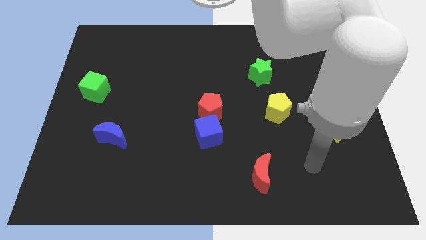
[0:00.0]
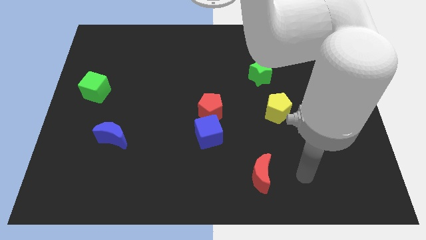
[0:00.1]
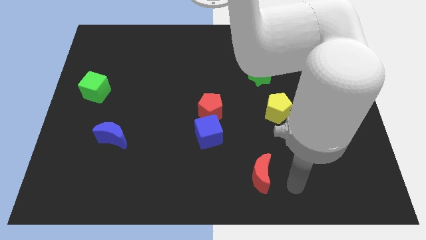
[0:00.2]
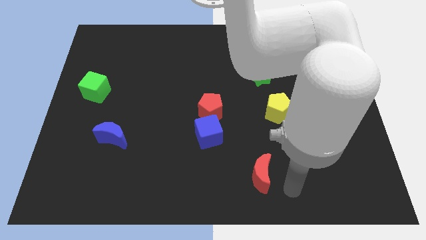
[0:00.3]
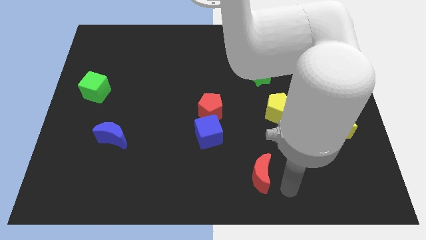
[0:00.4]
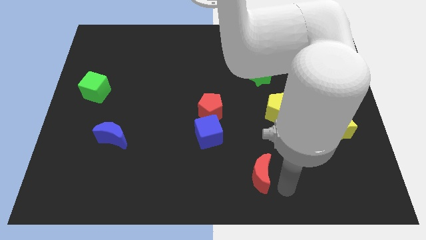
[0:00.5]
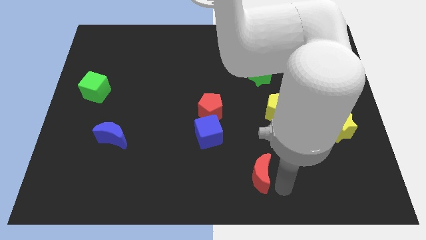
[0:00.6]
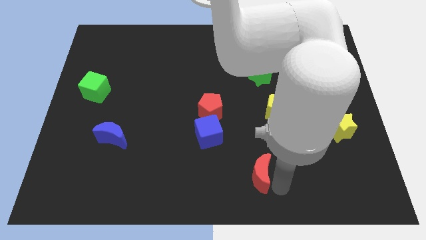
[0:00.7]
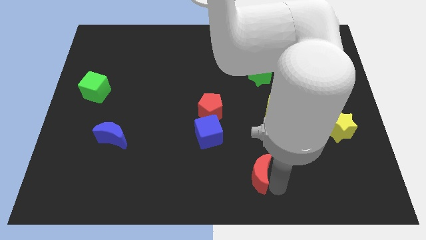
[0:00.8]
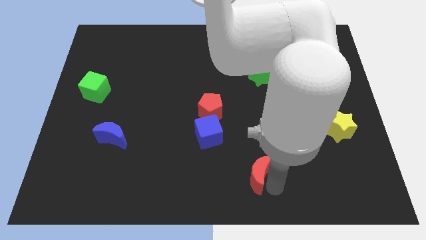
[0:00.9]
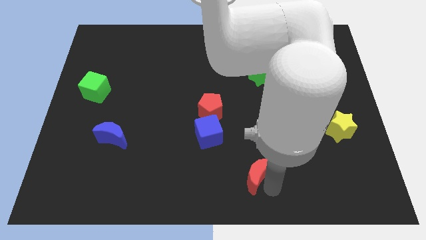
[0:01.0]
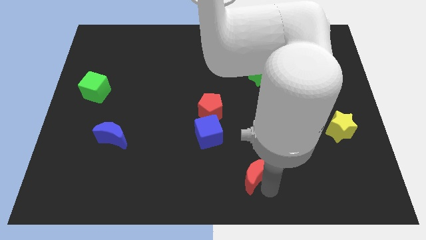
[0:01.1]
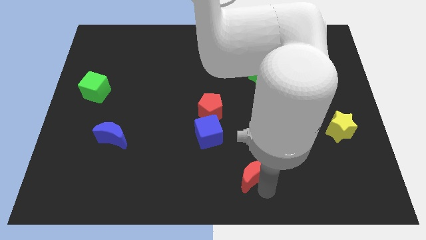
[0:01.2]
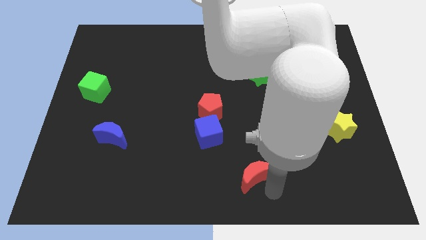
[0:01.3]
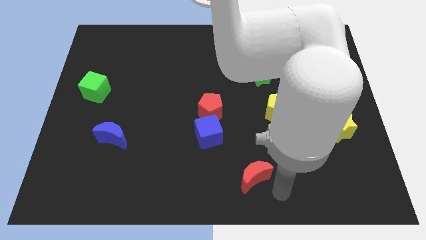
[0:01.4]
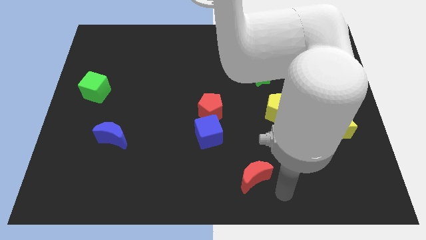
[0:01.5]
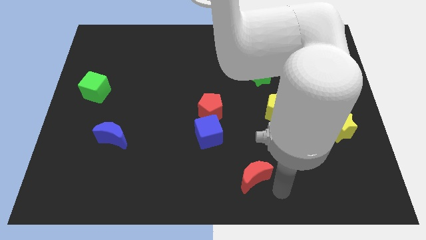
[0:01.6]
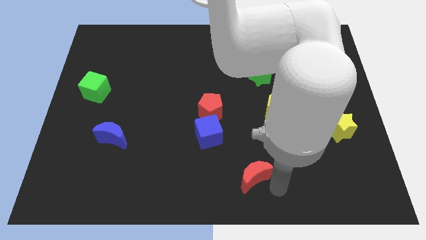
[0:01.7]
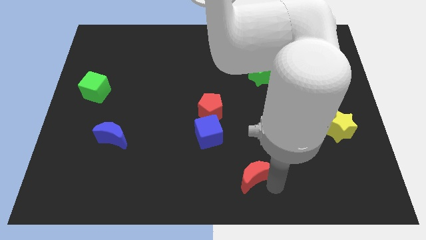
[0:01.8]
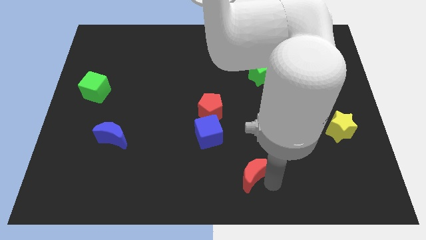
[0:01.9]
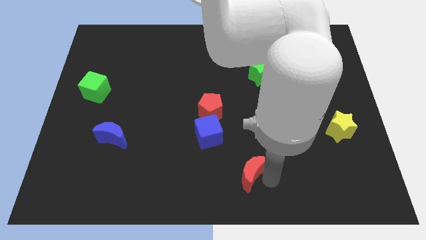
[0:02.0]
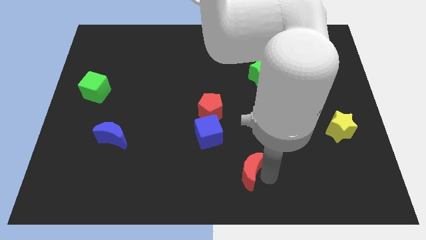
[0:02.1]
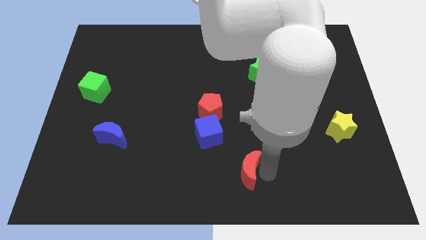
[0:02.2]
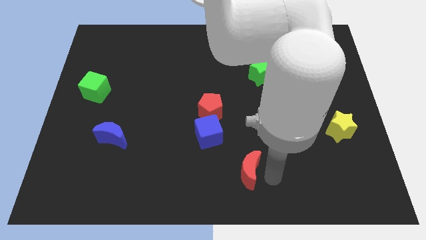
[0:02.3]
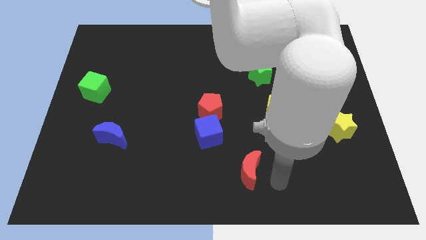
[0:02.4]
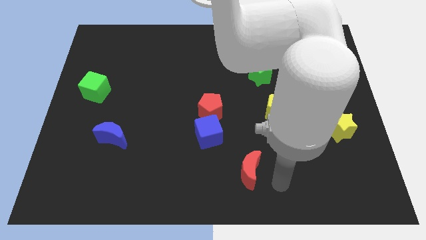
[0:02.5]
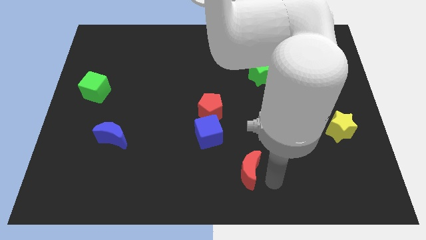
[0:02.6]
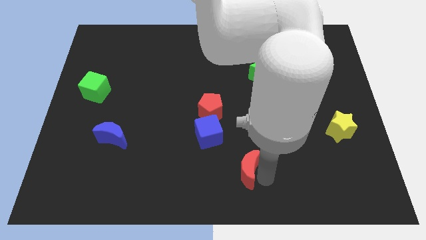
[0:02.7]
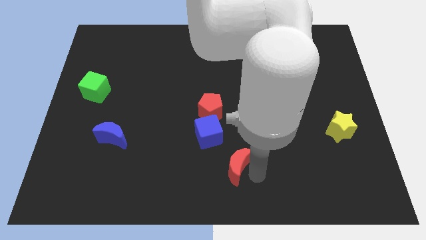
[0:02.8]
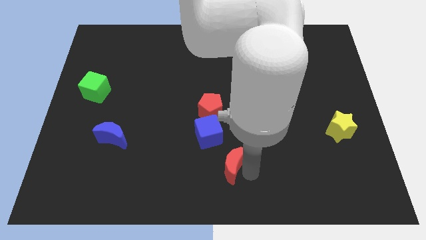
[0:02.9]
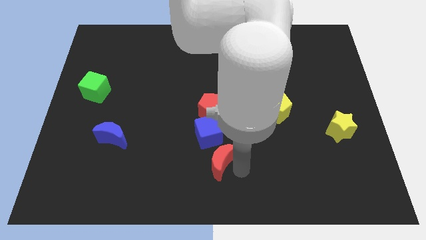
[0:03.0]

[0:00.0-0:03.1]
move the red moon a little bit upwards and left diagonally

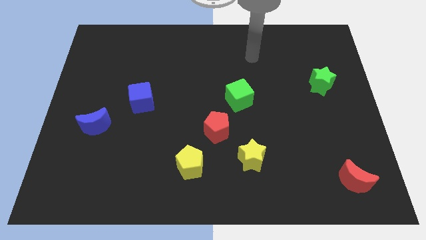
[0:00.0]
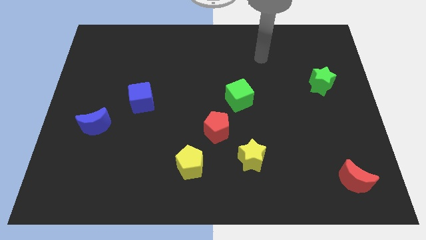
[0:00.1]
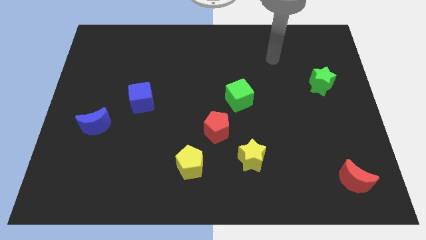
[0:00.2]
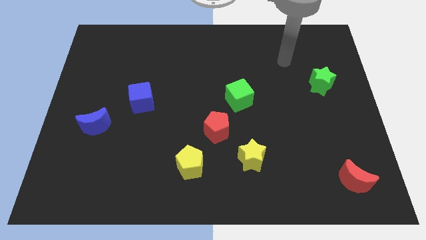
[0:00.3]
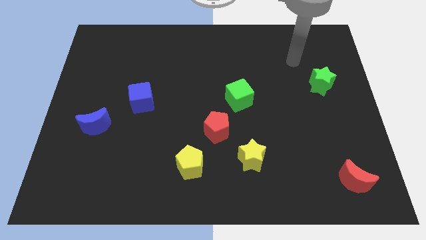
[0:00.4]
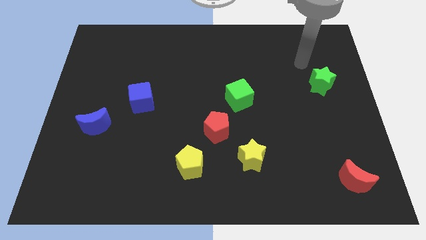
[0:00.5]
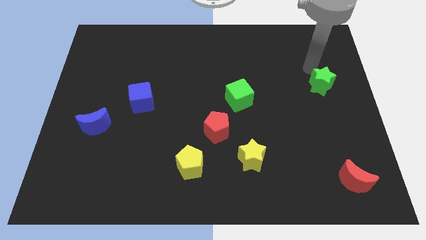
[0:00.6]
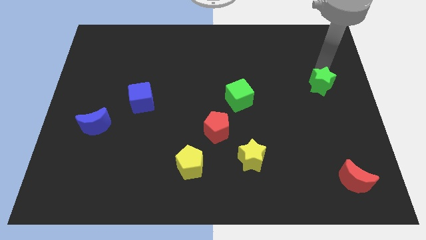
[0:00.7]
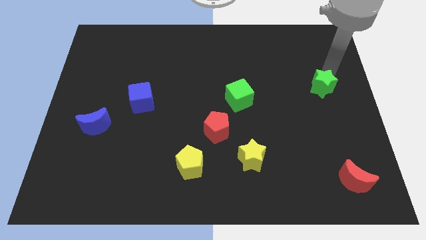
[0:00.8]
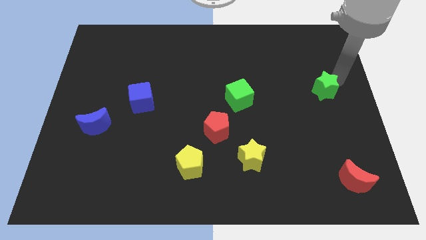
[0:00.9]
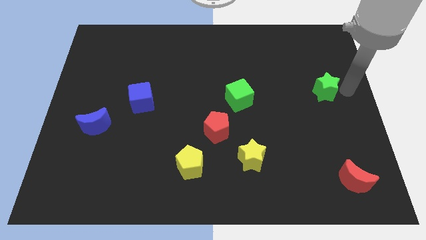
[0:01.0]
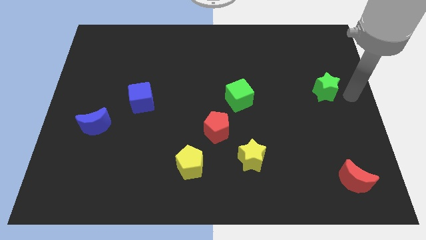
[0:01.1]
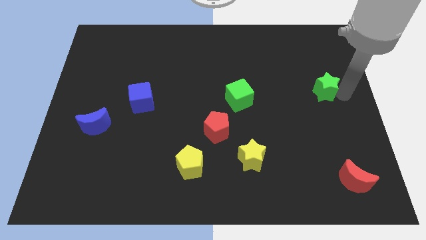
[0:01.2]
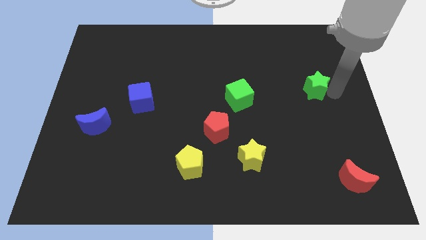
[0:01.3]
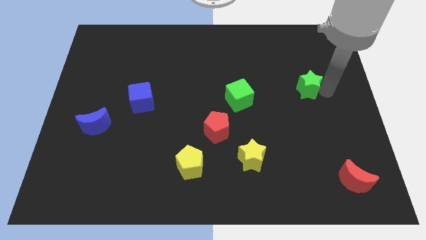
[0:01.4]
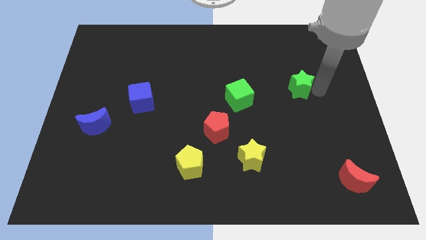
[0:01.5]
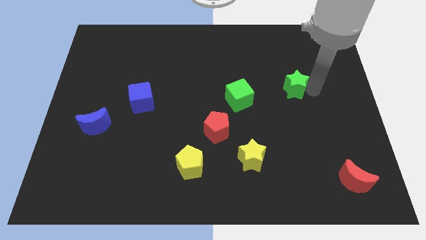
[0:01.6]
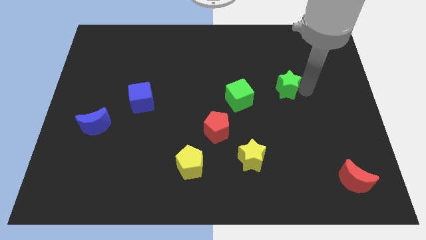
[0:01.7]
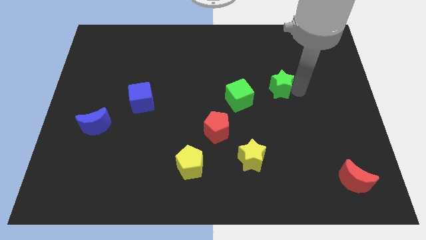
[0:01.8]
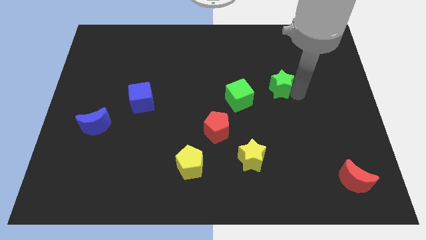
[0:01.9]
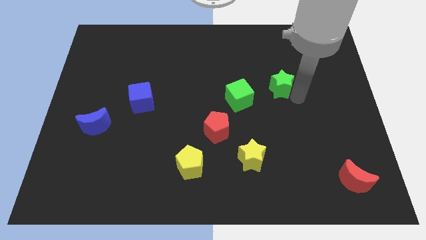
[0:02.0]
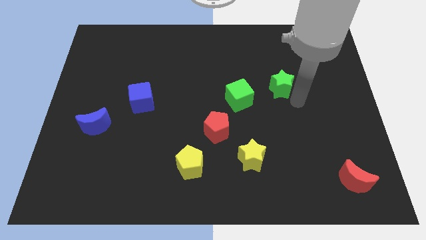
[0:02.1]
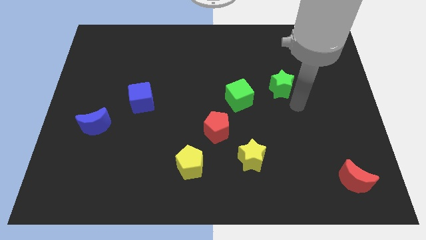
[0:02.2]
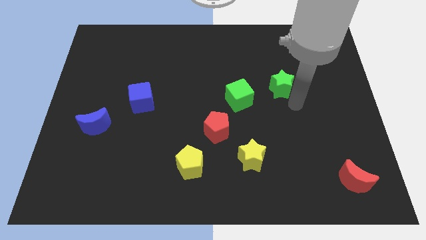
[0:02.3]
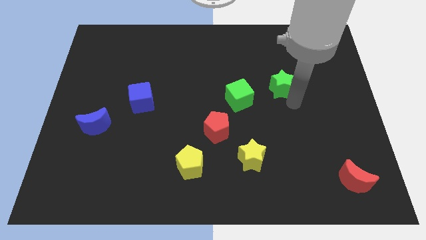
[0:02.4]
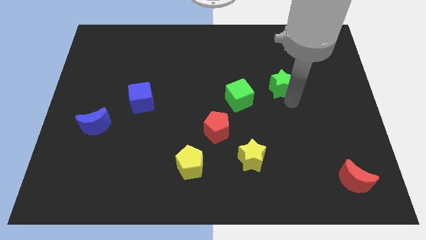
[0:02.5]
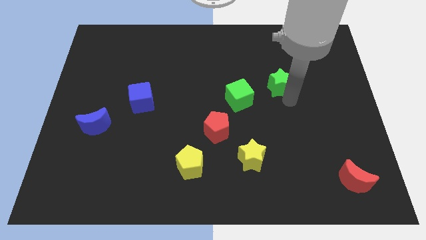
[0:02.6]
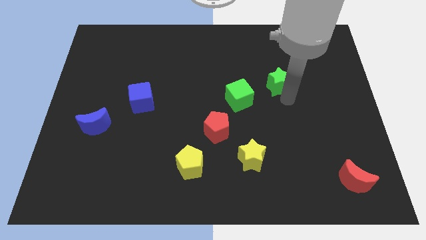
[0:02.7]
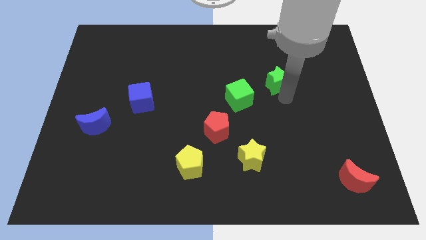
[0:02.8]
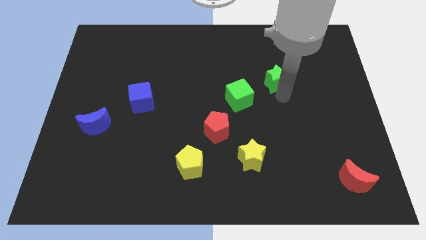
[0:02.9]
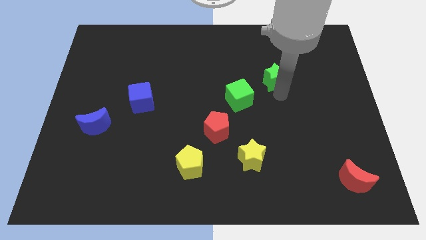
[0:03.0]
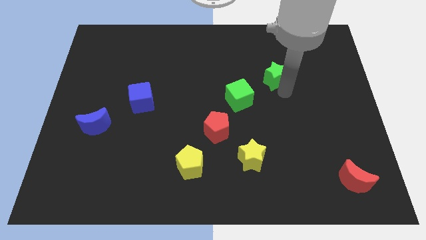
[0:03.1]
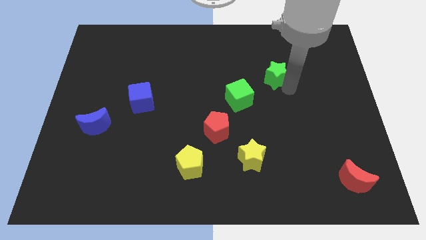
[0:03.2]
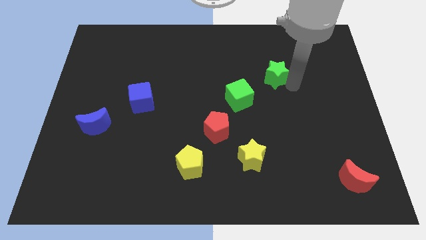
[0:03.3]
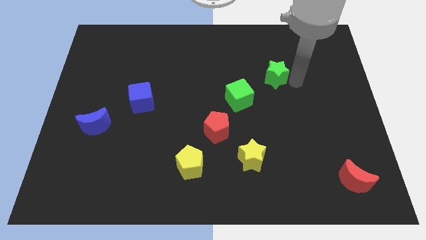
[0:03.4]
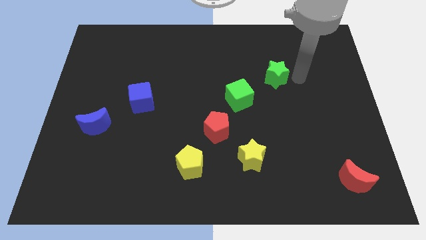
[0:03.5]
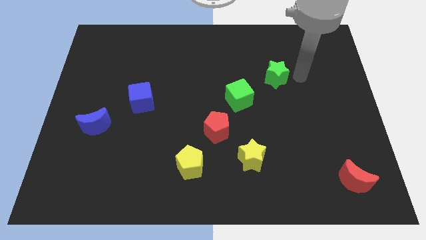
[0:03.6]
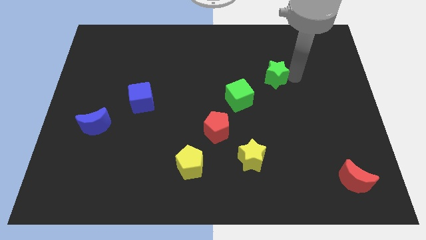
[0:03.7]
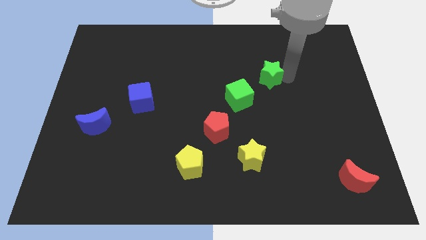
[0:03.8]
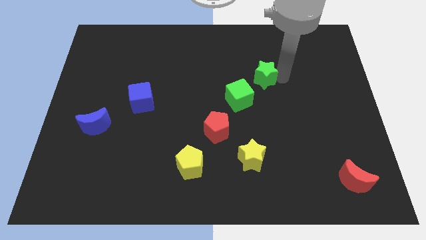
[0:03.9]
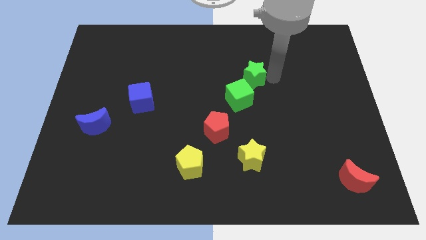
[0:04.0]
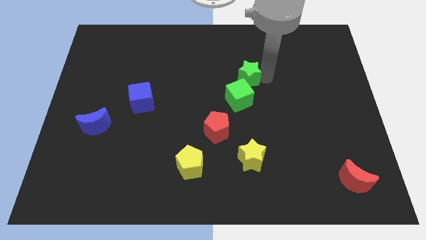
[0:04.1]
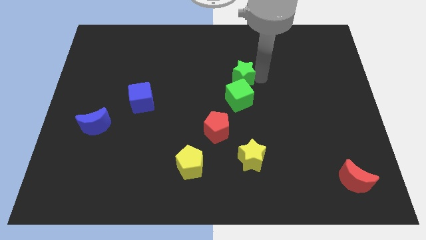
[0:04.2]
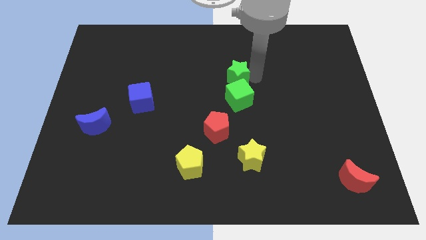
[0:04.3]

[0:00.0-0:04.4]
push the green star left

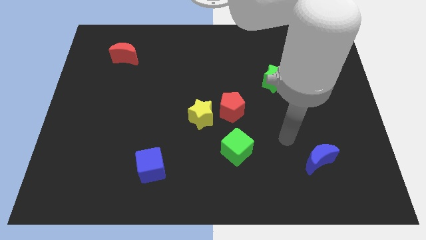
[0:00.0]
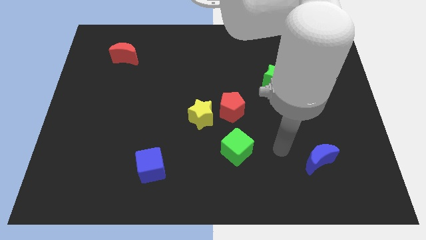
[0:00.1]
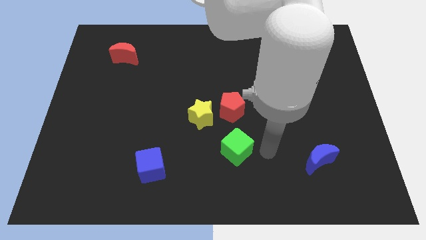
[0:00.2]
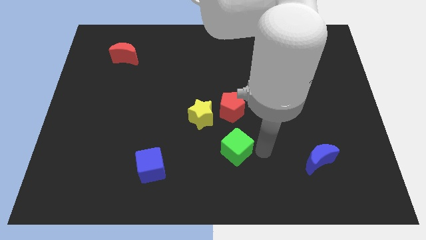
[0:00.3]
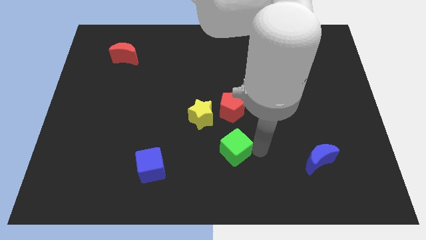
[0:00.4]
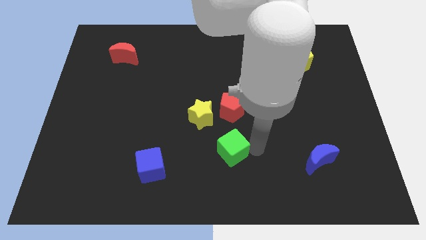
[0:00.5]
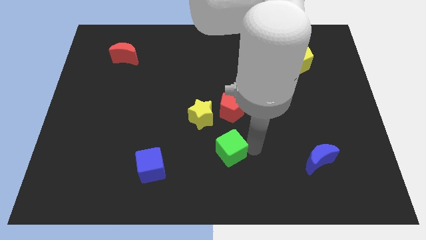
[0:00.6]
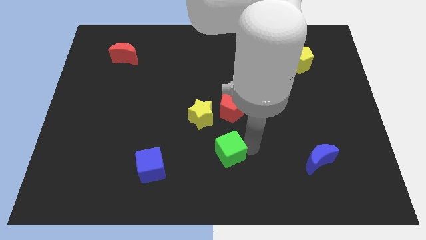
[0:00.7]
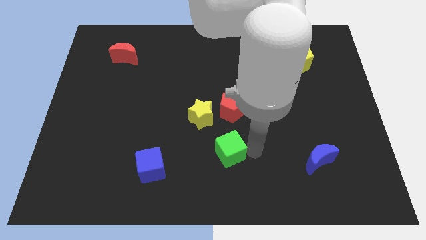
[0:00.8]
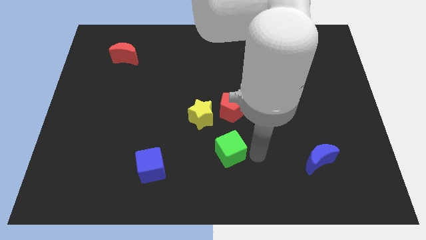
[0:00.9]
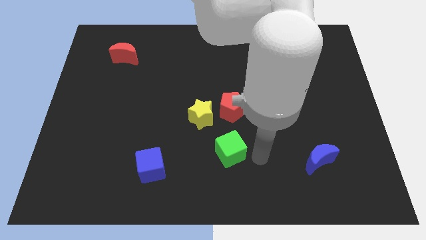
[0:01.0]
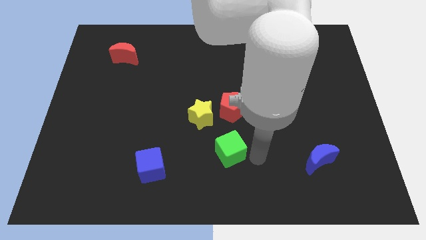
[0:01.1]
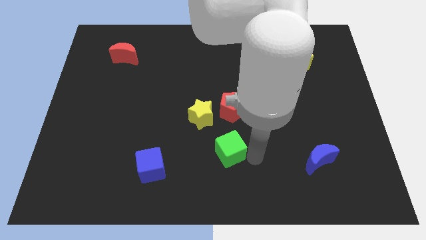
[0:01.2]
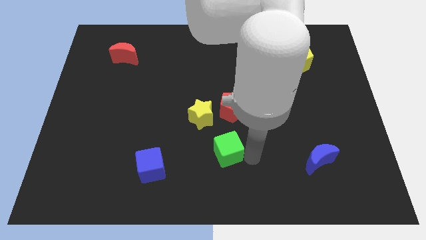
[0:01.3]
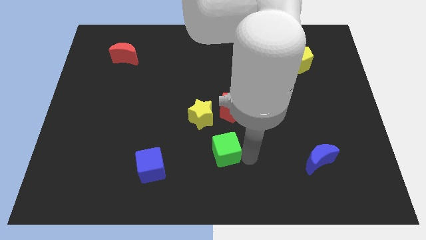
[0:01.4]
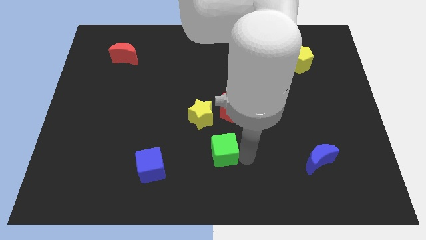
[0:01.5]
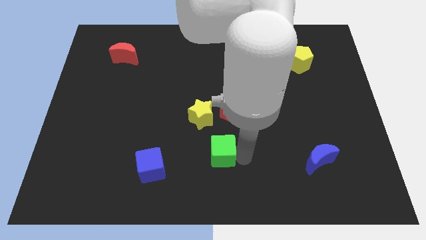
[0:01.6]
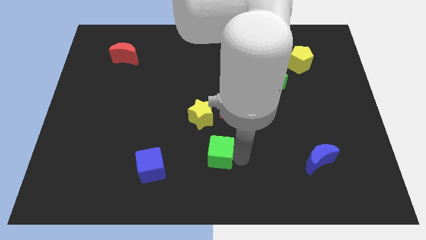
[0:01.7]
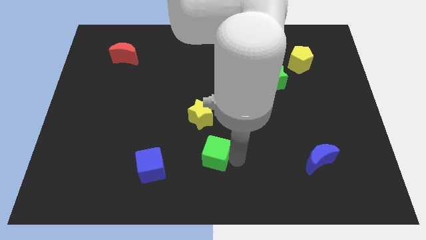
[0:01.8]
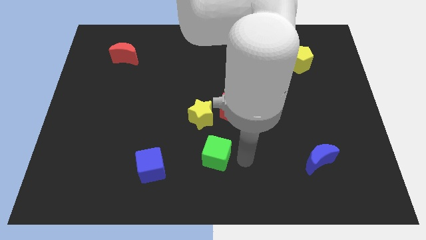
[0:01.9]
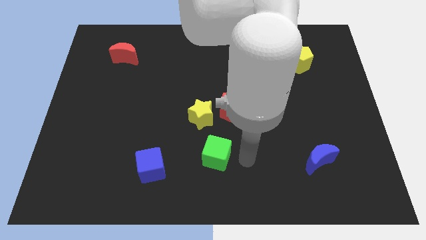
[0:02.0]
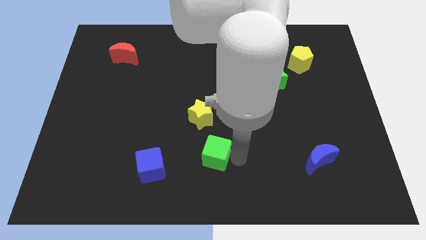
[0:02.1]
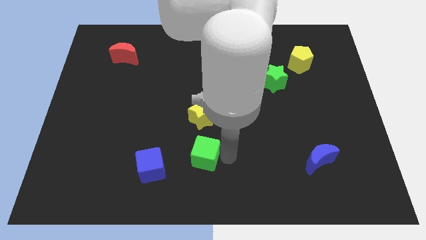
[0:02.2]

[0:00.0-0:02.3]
push the green cube a little bit to the left
